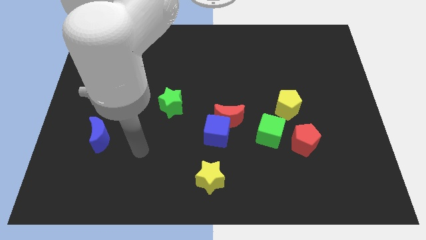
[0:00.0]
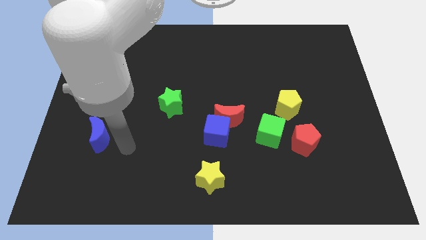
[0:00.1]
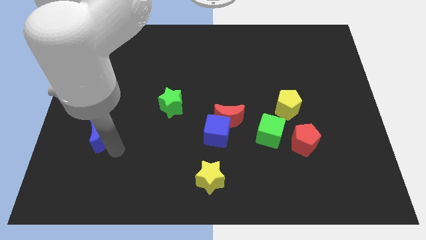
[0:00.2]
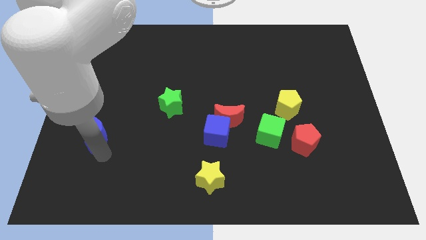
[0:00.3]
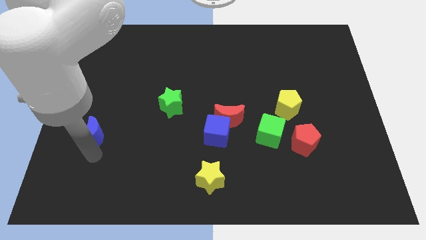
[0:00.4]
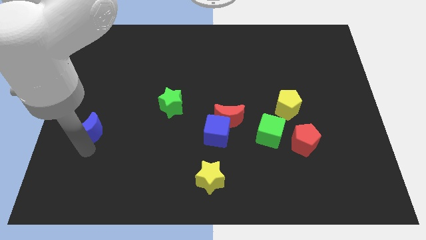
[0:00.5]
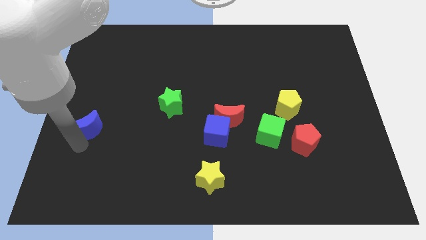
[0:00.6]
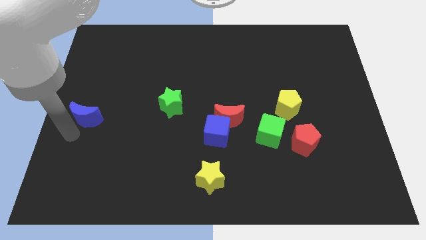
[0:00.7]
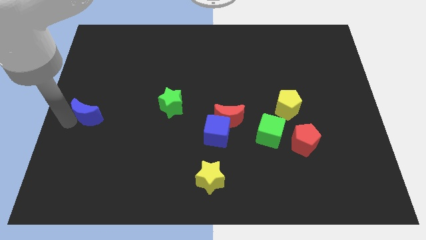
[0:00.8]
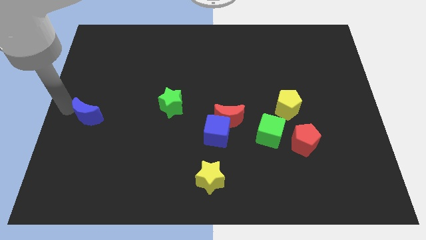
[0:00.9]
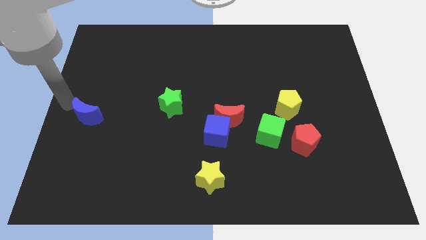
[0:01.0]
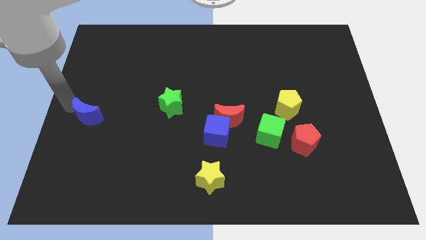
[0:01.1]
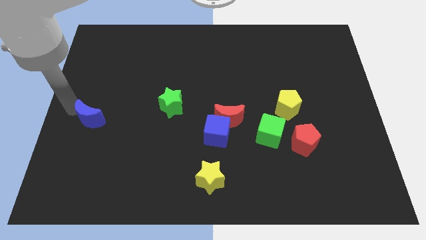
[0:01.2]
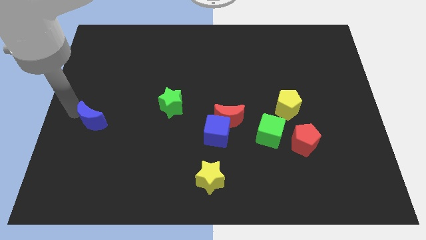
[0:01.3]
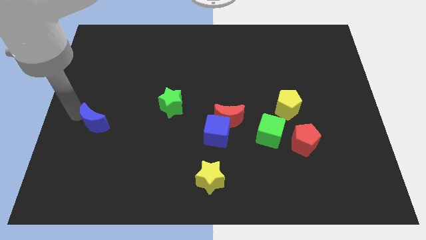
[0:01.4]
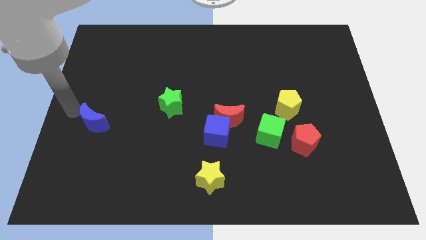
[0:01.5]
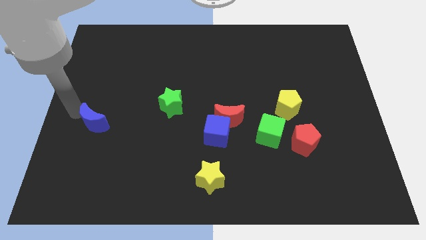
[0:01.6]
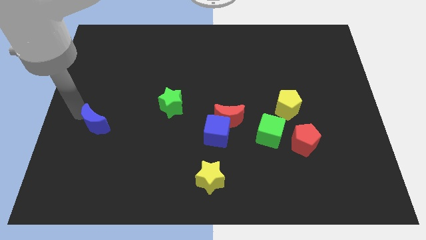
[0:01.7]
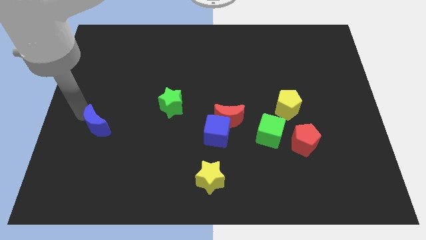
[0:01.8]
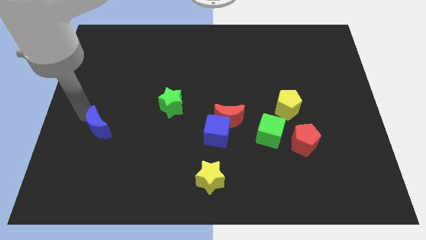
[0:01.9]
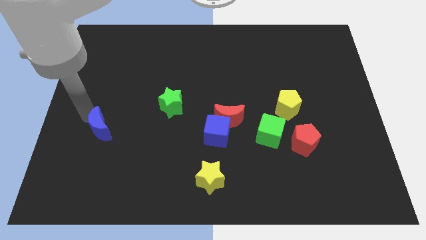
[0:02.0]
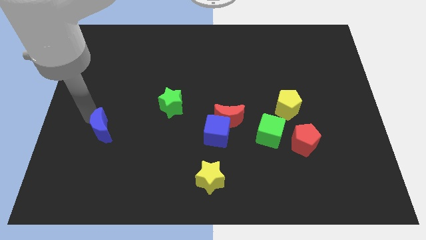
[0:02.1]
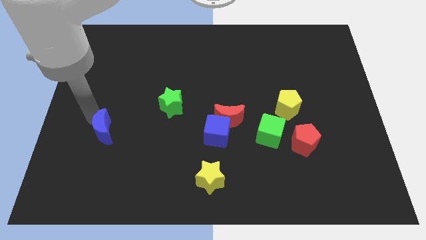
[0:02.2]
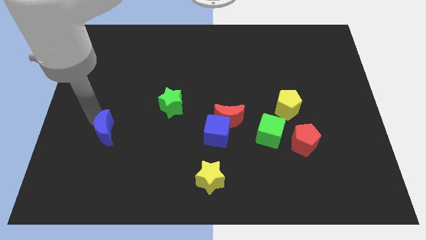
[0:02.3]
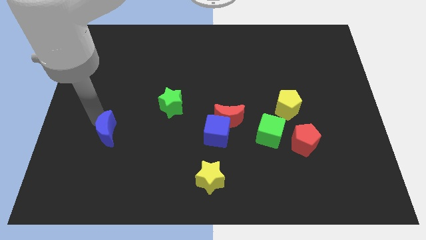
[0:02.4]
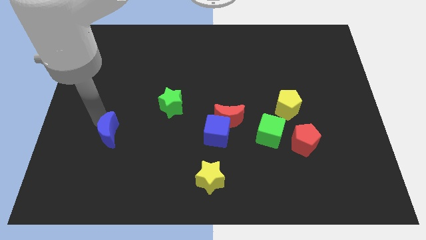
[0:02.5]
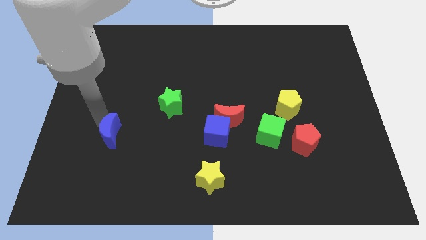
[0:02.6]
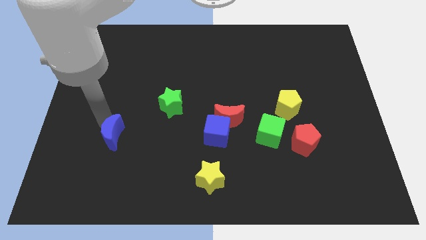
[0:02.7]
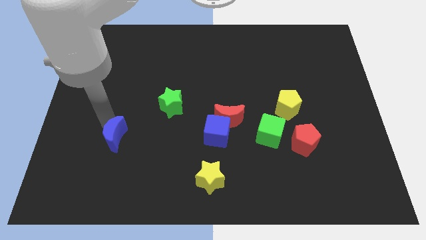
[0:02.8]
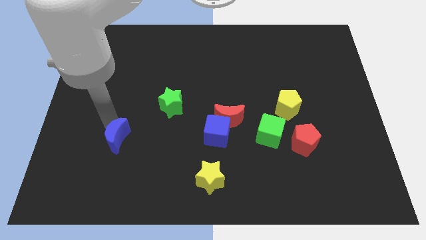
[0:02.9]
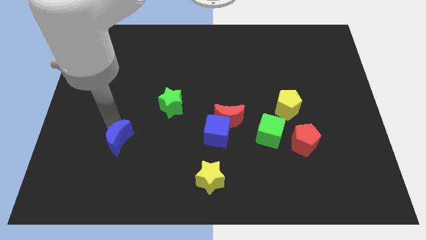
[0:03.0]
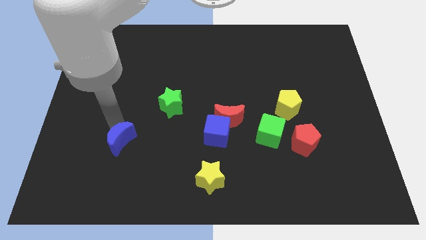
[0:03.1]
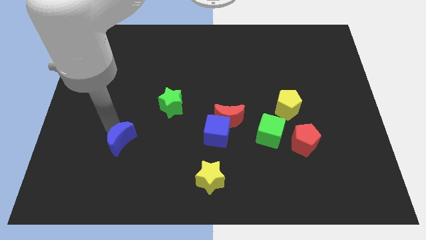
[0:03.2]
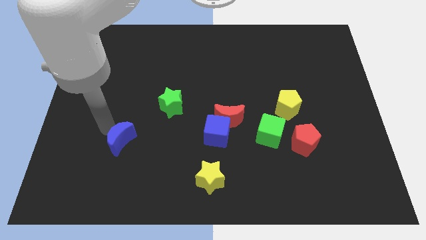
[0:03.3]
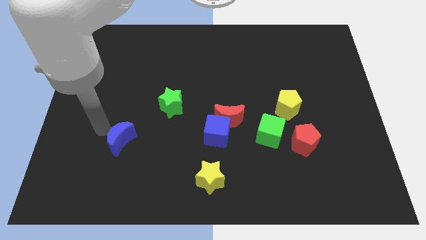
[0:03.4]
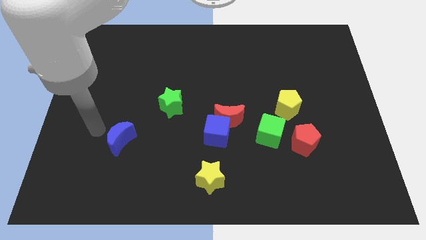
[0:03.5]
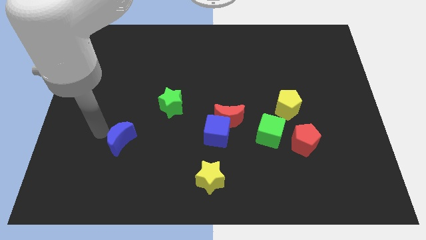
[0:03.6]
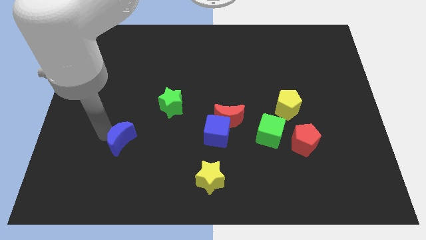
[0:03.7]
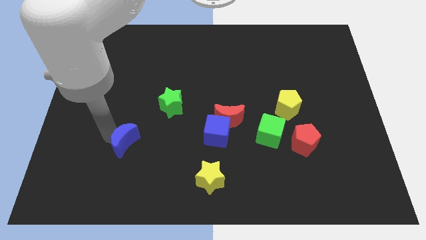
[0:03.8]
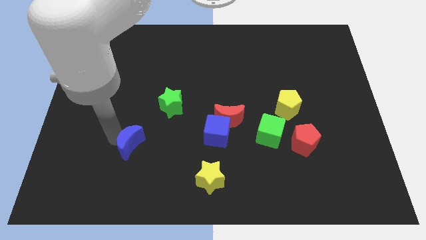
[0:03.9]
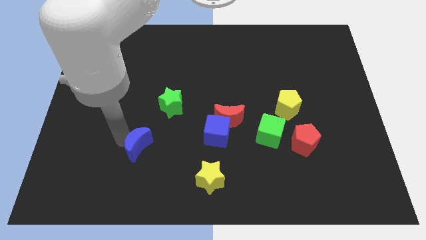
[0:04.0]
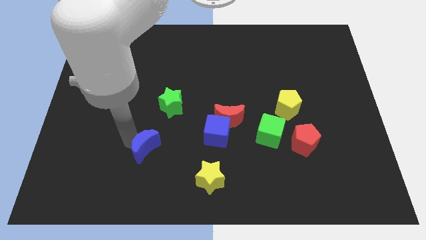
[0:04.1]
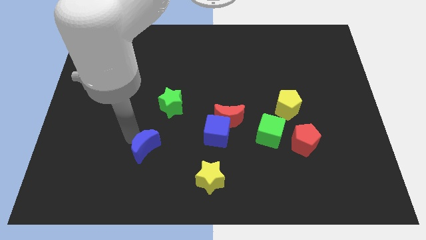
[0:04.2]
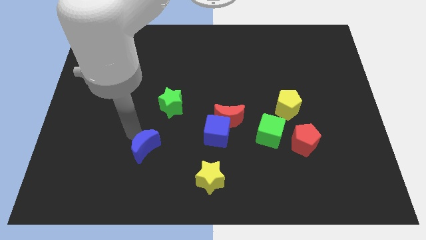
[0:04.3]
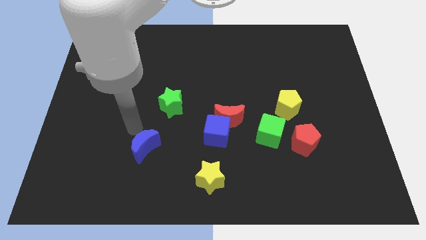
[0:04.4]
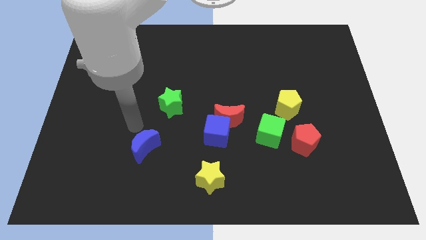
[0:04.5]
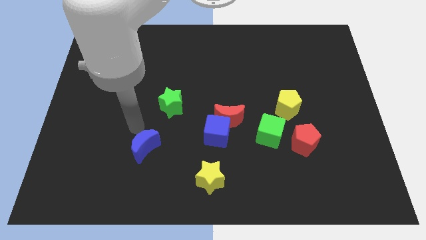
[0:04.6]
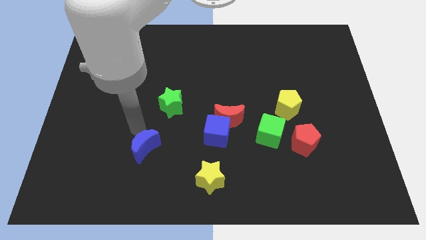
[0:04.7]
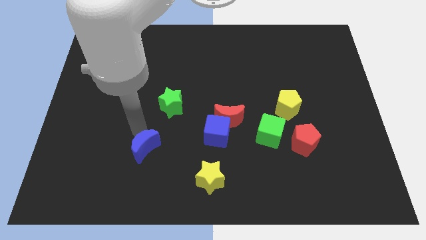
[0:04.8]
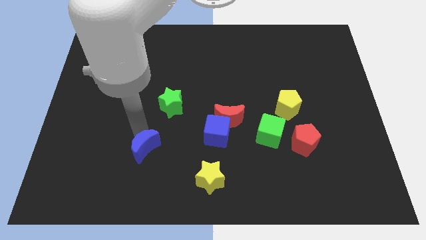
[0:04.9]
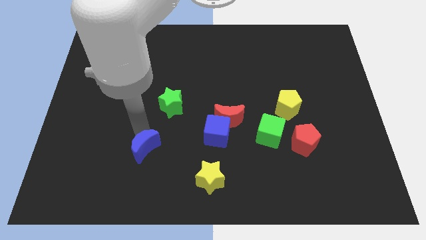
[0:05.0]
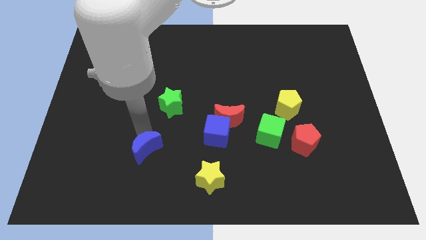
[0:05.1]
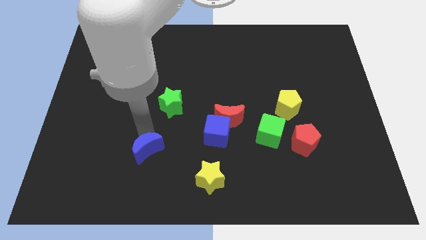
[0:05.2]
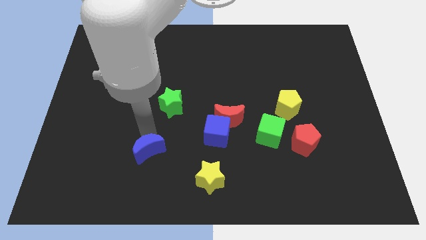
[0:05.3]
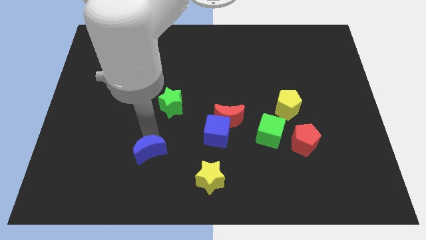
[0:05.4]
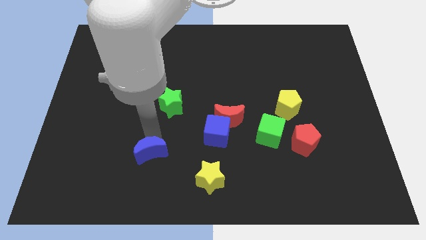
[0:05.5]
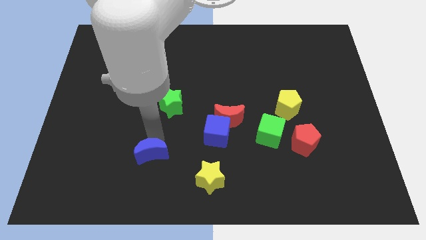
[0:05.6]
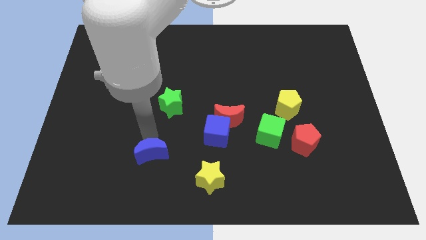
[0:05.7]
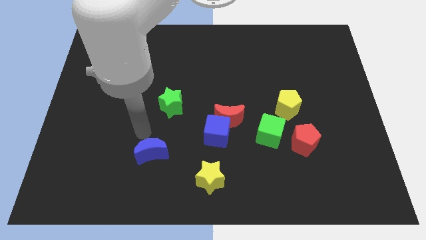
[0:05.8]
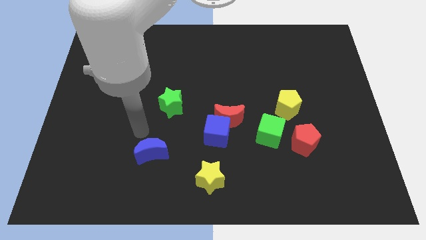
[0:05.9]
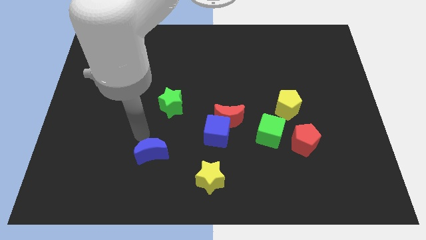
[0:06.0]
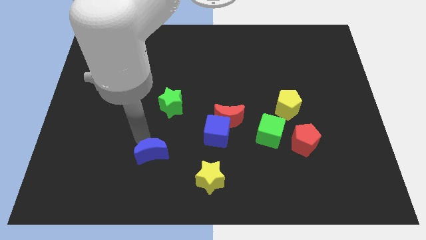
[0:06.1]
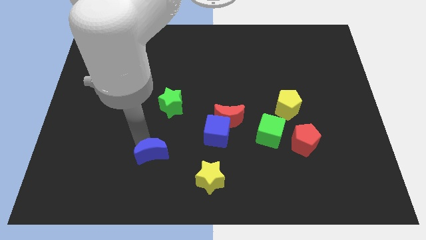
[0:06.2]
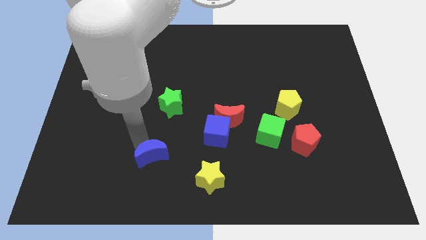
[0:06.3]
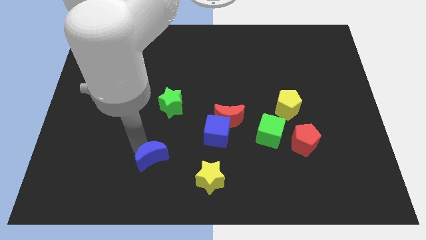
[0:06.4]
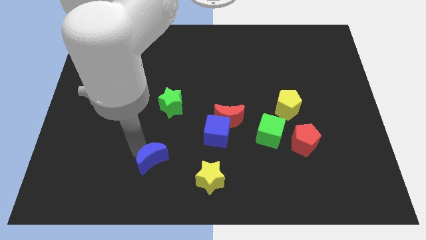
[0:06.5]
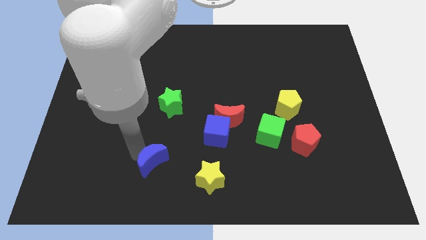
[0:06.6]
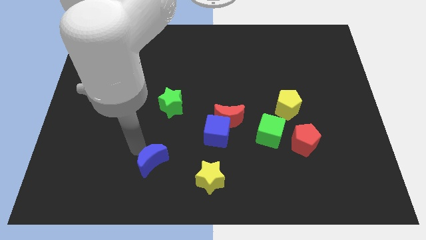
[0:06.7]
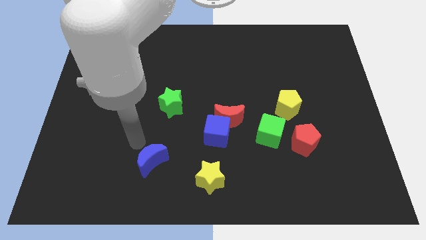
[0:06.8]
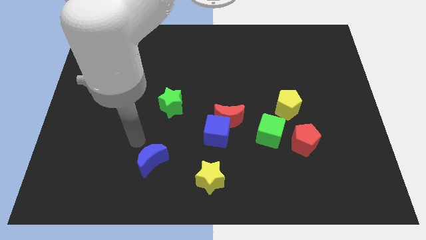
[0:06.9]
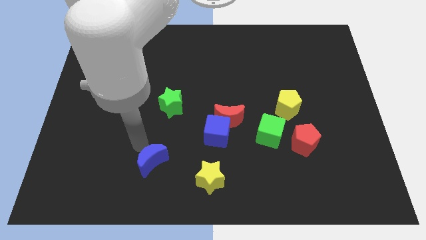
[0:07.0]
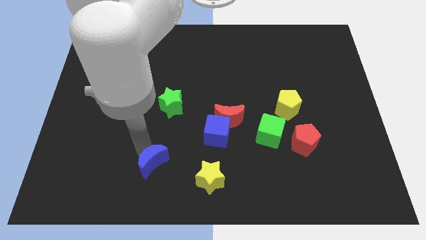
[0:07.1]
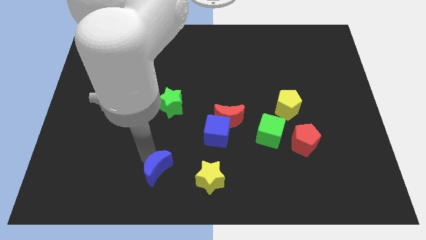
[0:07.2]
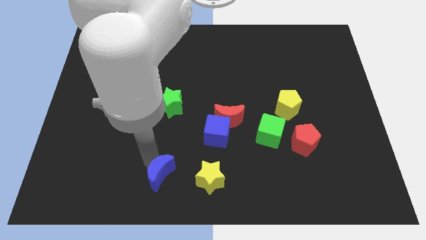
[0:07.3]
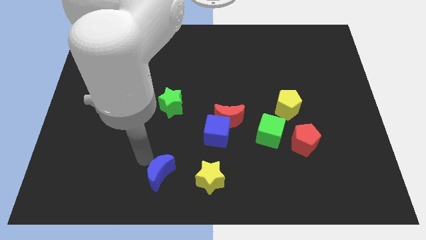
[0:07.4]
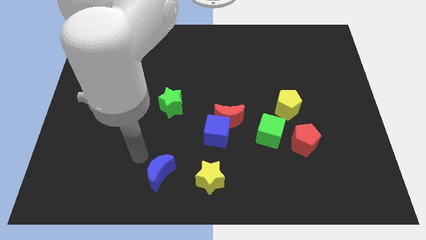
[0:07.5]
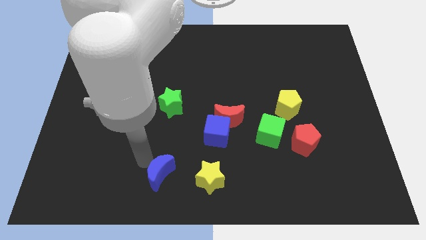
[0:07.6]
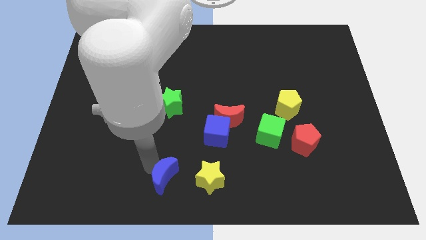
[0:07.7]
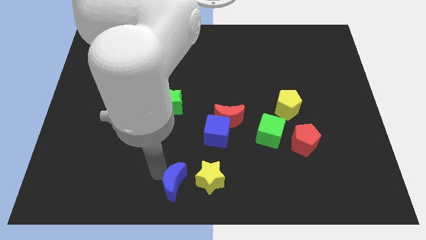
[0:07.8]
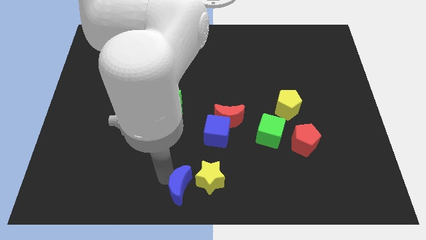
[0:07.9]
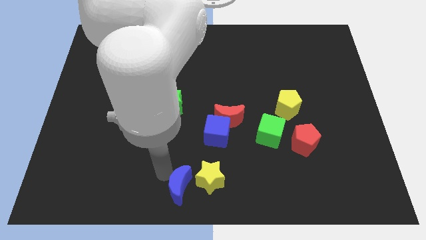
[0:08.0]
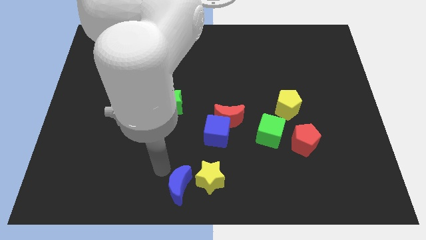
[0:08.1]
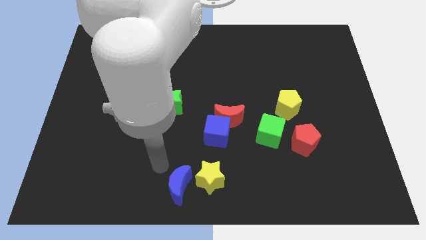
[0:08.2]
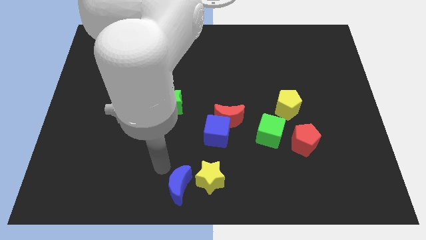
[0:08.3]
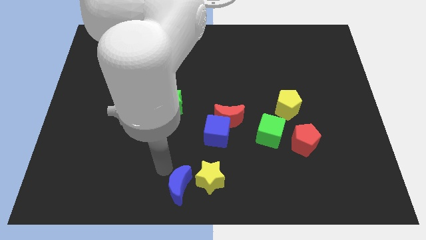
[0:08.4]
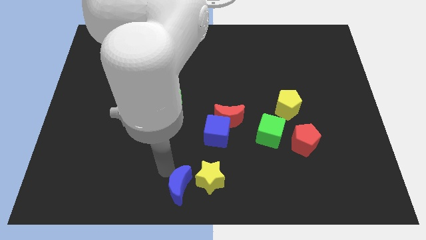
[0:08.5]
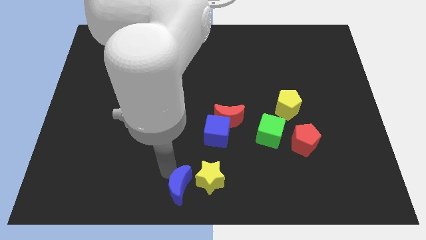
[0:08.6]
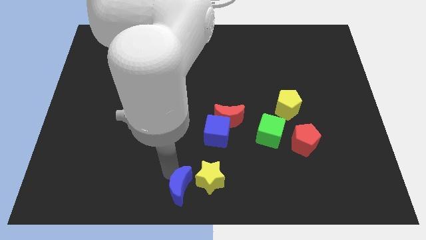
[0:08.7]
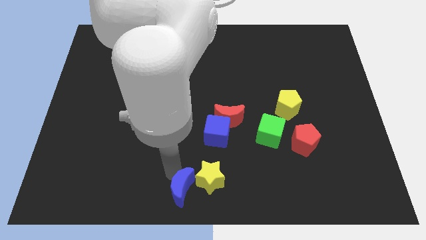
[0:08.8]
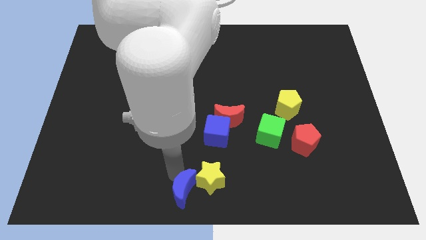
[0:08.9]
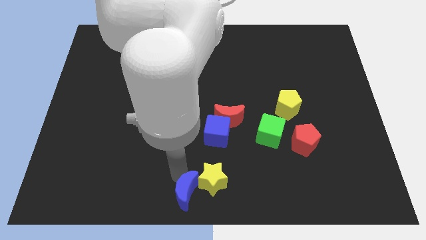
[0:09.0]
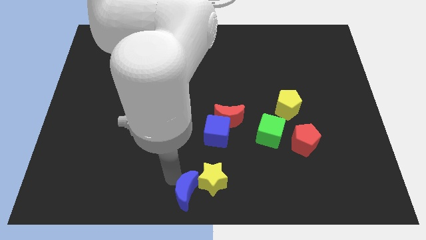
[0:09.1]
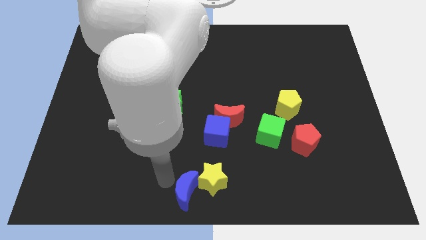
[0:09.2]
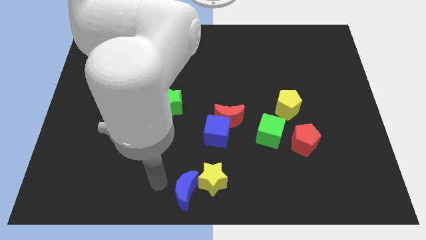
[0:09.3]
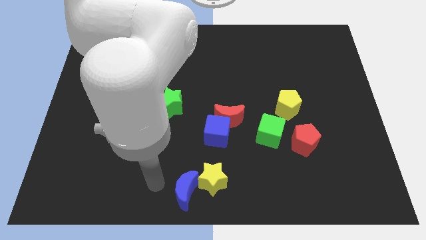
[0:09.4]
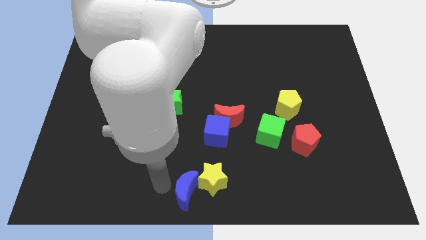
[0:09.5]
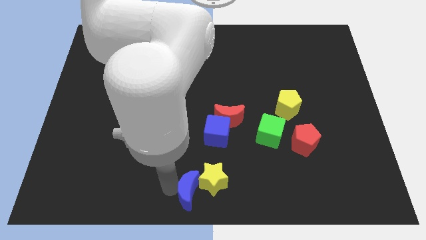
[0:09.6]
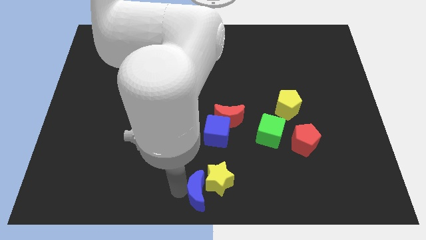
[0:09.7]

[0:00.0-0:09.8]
move the blue moon below the blue cube
